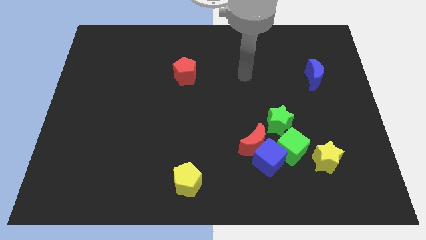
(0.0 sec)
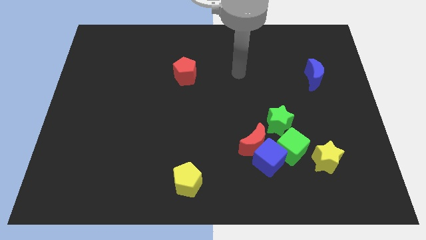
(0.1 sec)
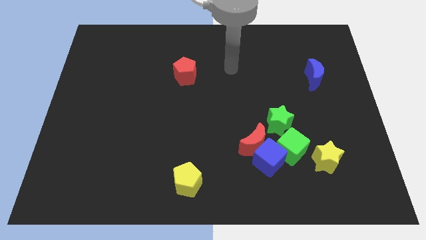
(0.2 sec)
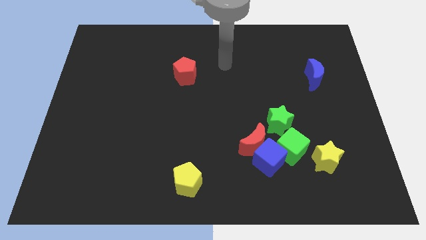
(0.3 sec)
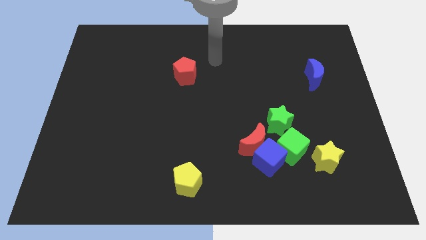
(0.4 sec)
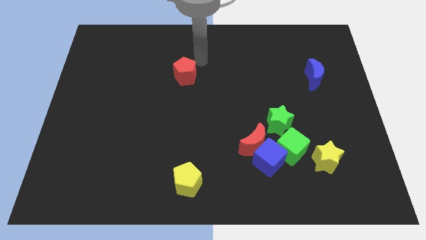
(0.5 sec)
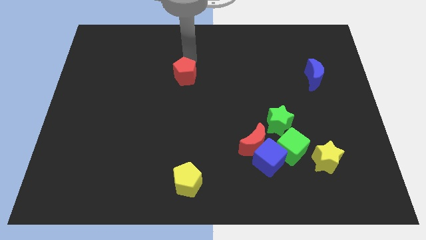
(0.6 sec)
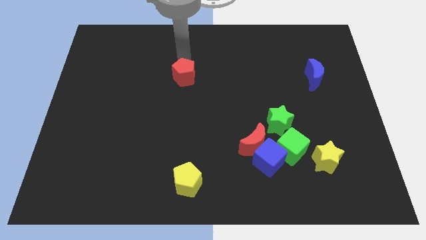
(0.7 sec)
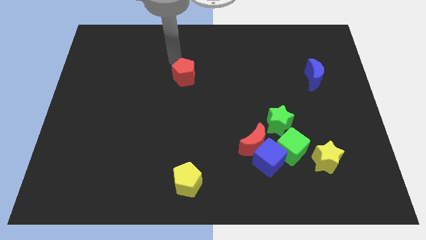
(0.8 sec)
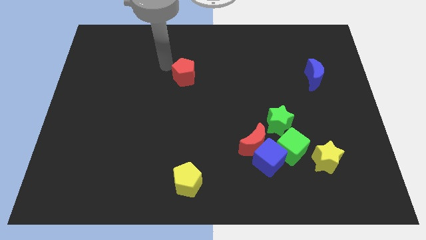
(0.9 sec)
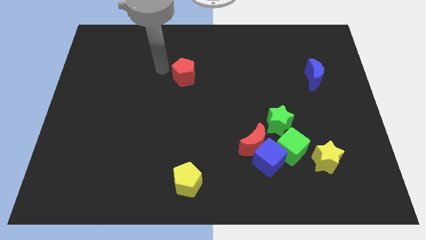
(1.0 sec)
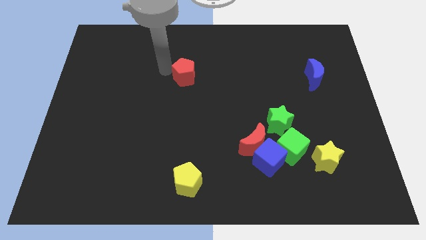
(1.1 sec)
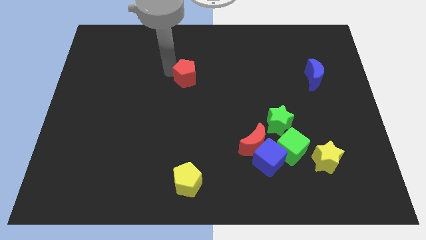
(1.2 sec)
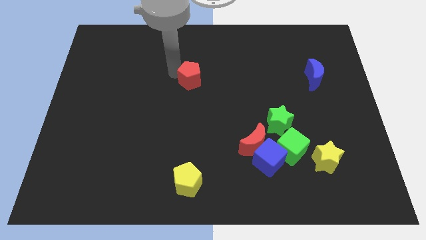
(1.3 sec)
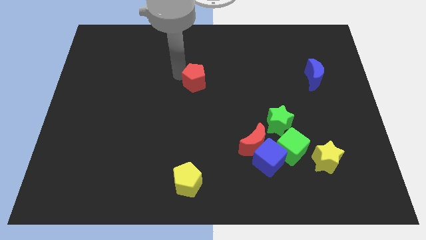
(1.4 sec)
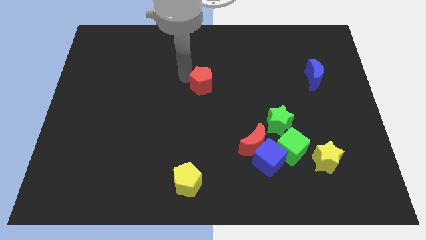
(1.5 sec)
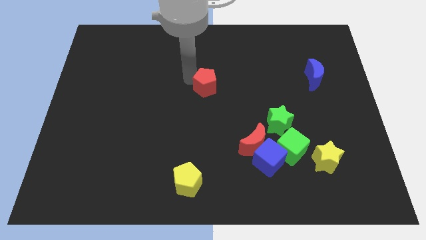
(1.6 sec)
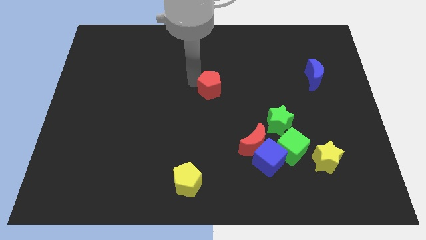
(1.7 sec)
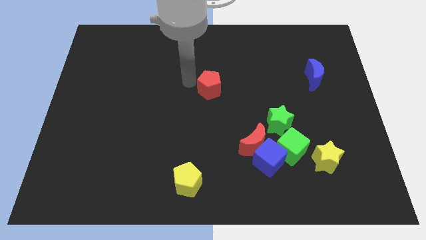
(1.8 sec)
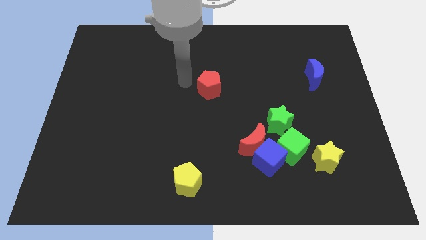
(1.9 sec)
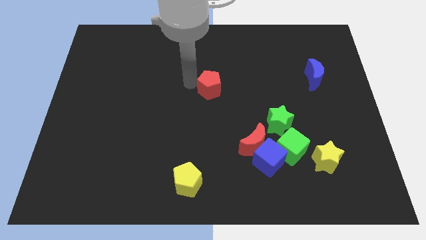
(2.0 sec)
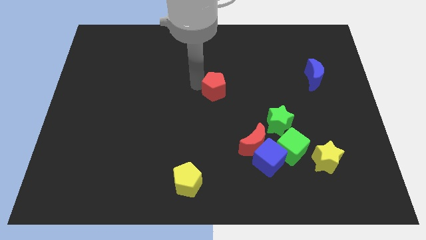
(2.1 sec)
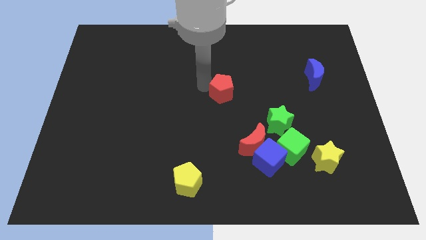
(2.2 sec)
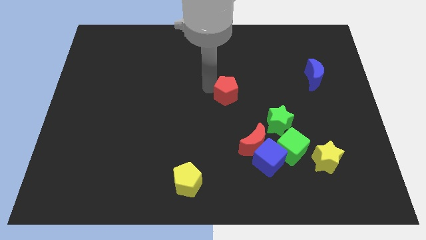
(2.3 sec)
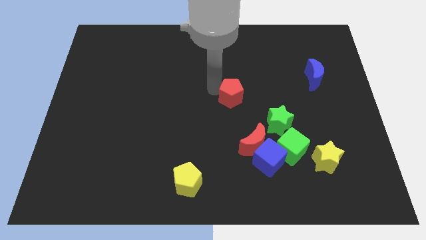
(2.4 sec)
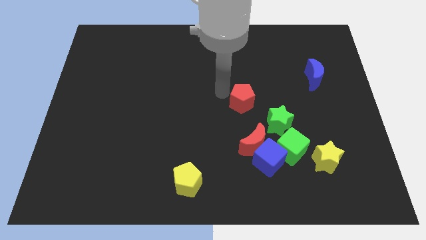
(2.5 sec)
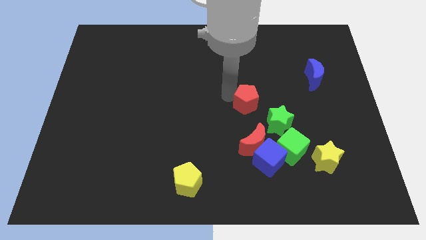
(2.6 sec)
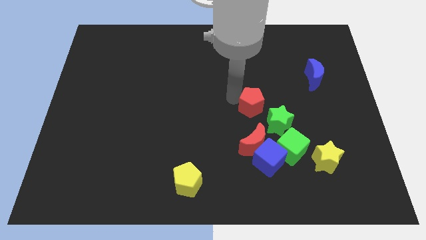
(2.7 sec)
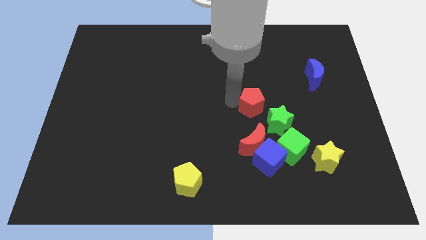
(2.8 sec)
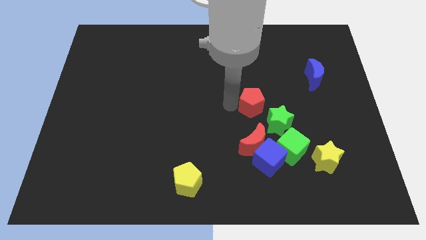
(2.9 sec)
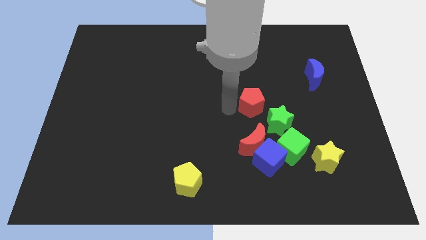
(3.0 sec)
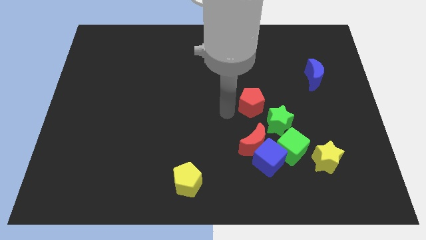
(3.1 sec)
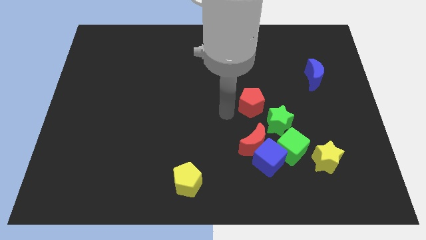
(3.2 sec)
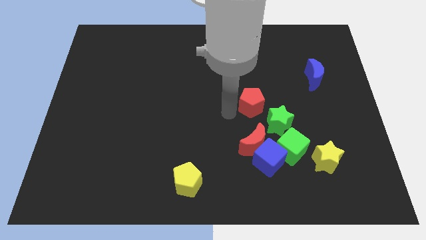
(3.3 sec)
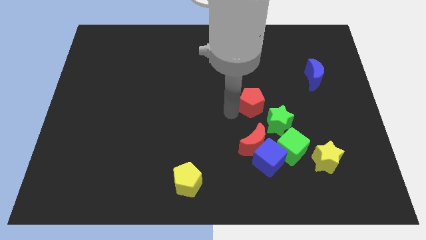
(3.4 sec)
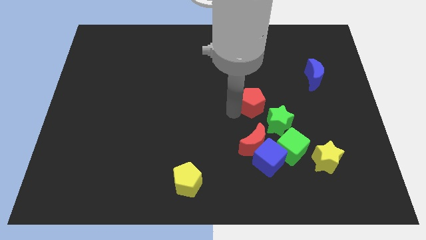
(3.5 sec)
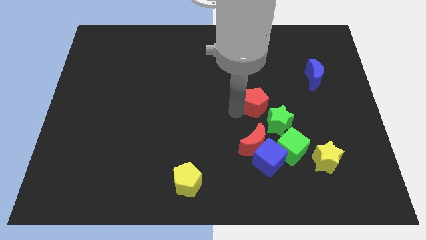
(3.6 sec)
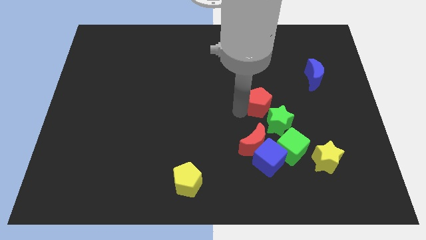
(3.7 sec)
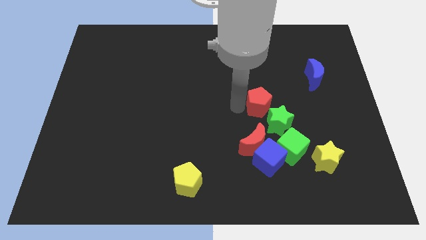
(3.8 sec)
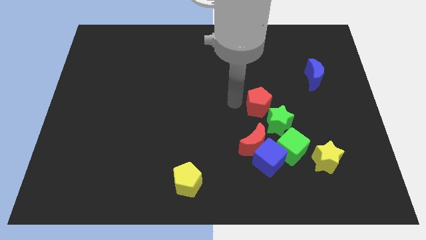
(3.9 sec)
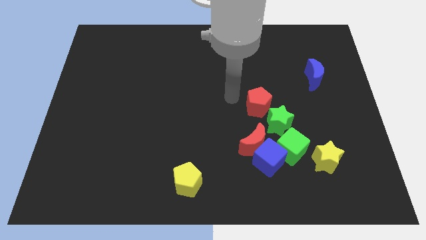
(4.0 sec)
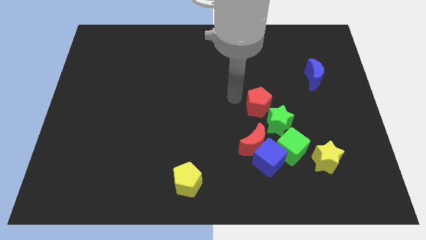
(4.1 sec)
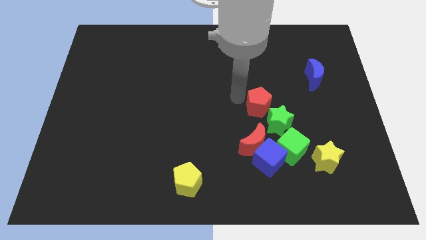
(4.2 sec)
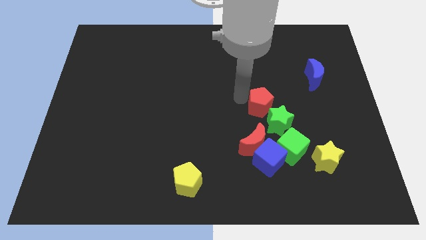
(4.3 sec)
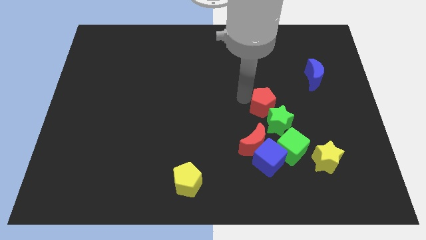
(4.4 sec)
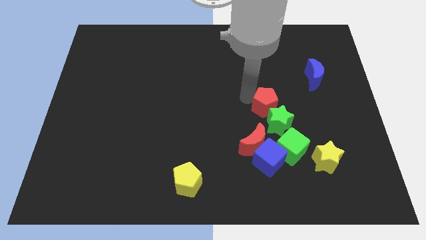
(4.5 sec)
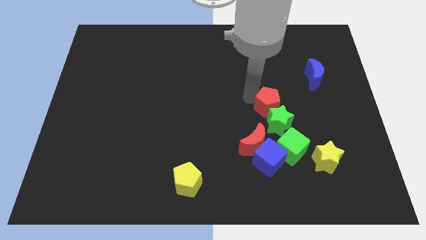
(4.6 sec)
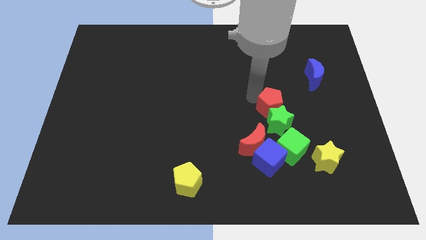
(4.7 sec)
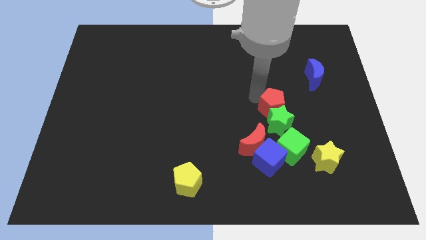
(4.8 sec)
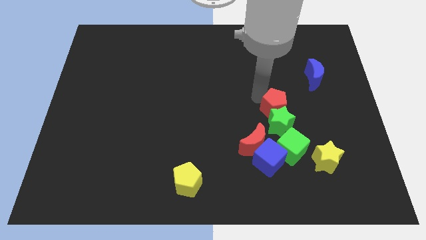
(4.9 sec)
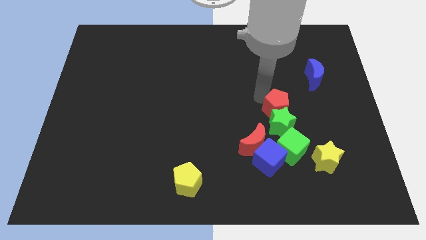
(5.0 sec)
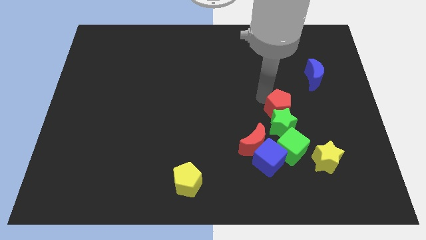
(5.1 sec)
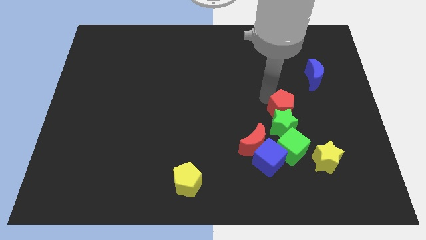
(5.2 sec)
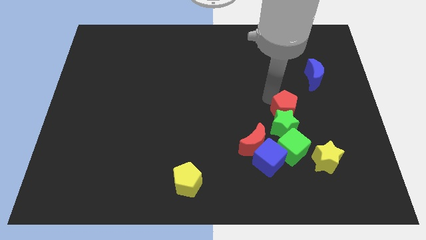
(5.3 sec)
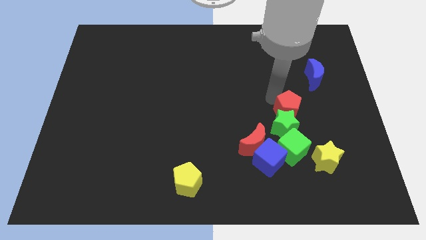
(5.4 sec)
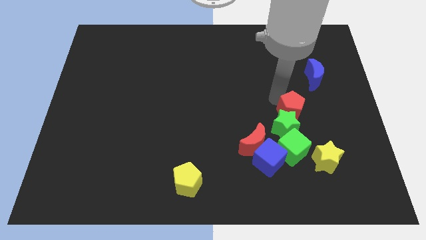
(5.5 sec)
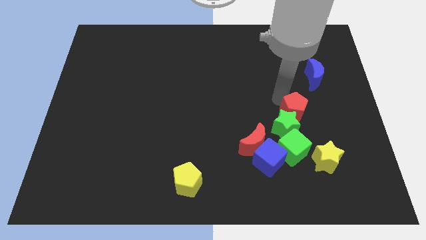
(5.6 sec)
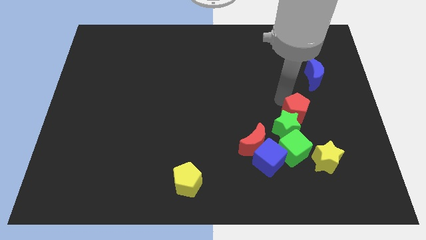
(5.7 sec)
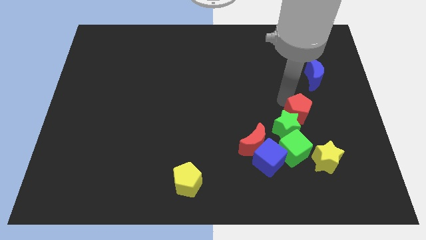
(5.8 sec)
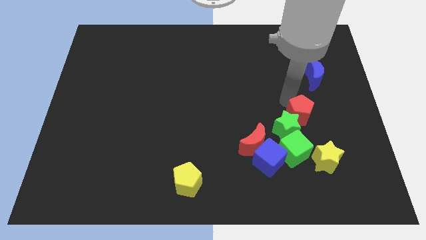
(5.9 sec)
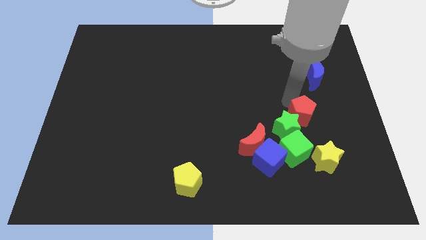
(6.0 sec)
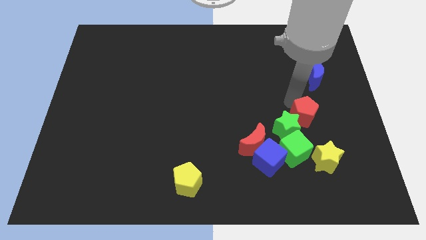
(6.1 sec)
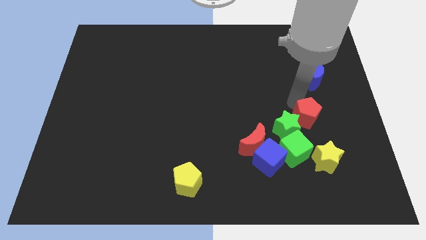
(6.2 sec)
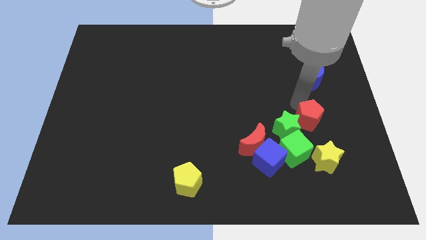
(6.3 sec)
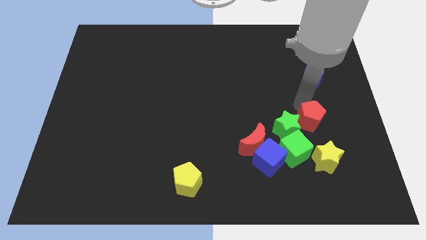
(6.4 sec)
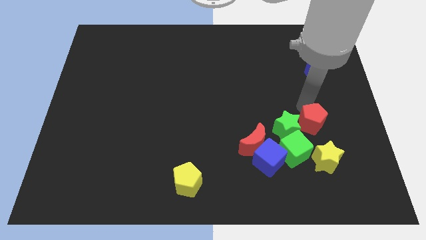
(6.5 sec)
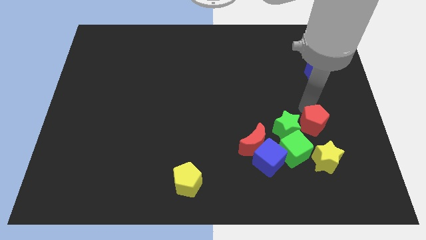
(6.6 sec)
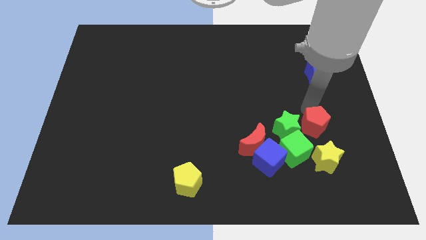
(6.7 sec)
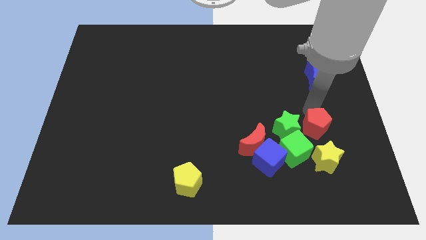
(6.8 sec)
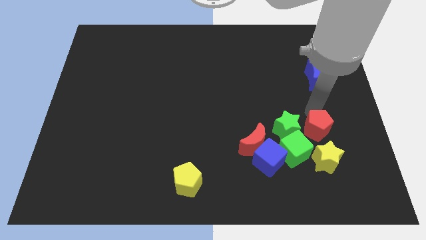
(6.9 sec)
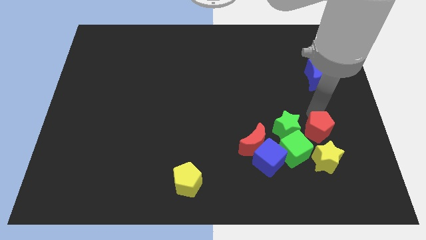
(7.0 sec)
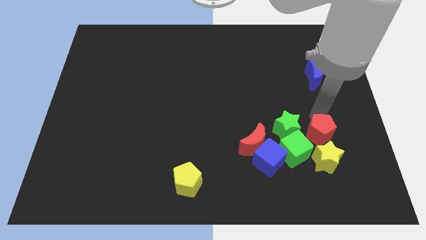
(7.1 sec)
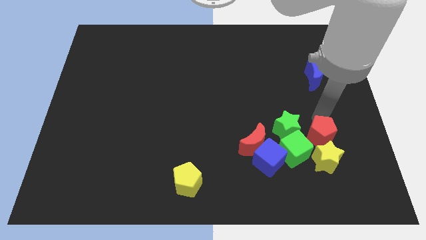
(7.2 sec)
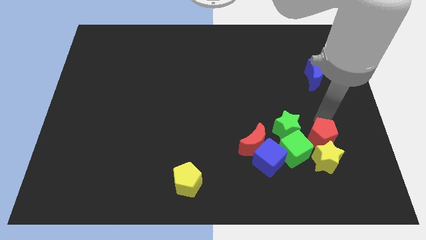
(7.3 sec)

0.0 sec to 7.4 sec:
move the red pentagon to the yellow star

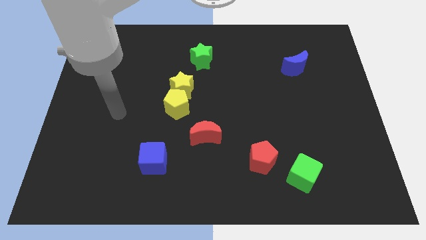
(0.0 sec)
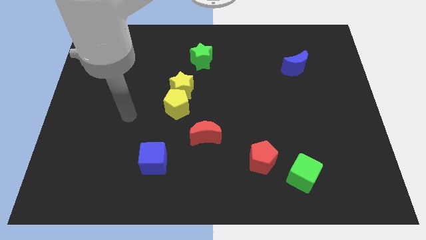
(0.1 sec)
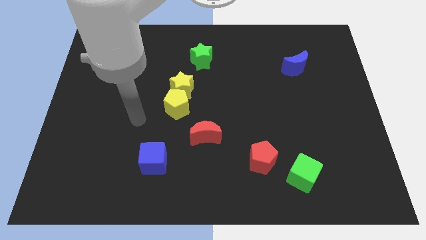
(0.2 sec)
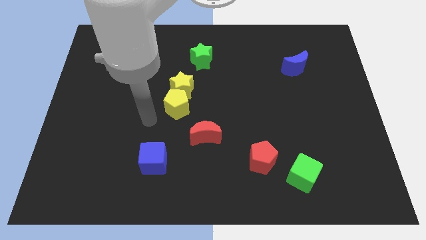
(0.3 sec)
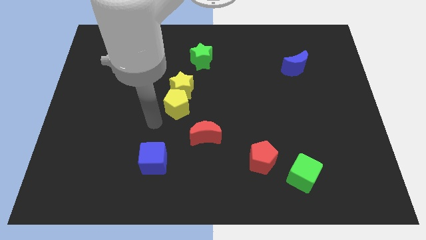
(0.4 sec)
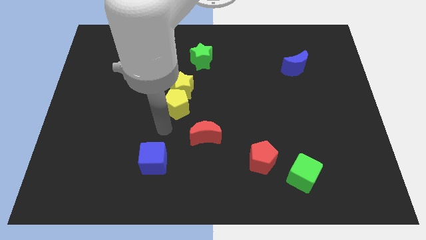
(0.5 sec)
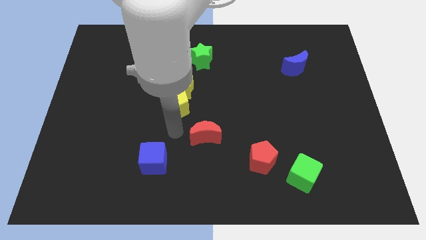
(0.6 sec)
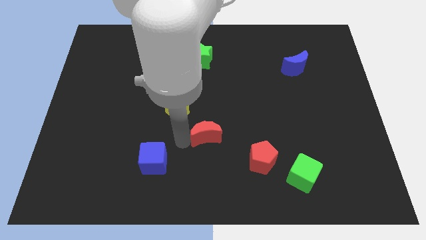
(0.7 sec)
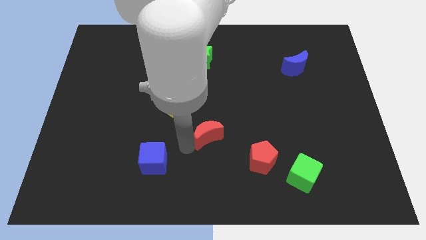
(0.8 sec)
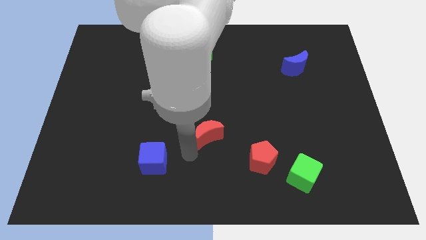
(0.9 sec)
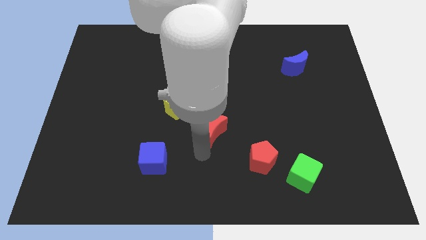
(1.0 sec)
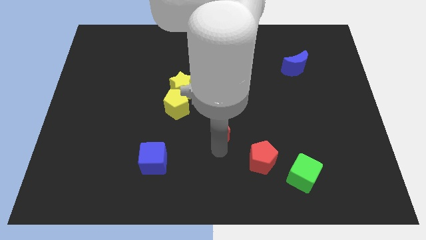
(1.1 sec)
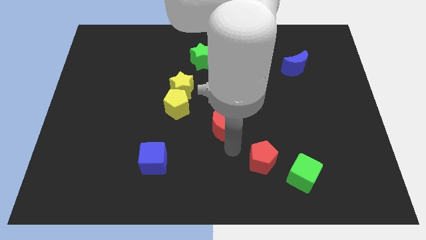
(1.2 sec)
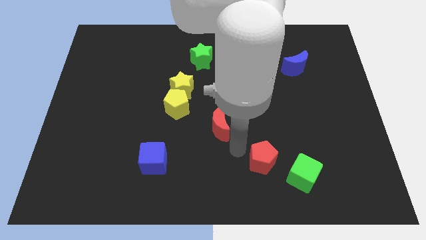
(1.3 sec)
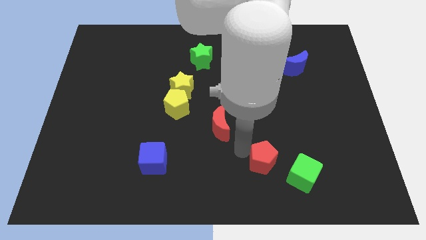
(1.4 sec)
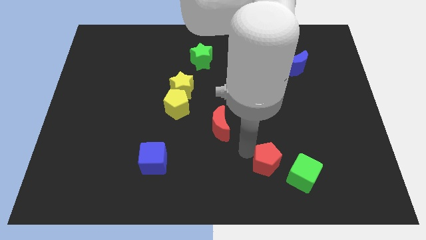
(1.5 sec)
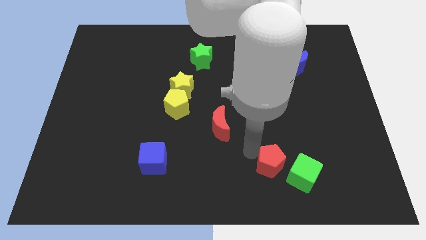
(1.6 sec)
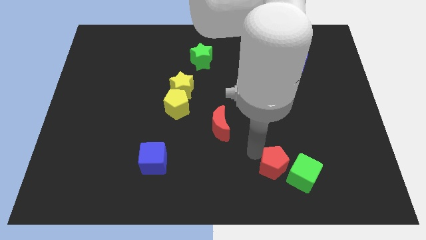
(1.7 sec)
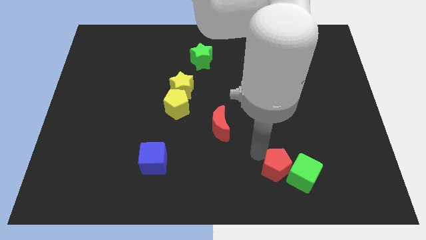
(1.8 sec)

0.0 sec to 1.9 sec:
put the red pentagon close to the green cube
